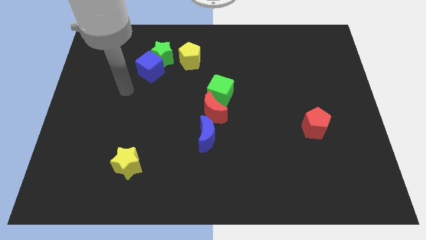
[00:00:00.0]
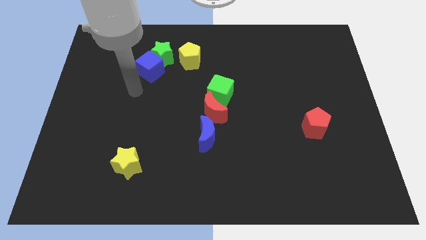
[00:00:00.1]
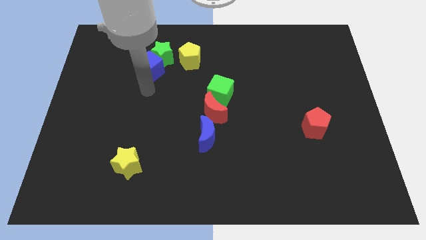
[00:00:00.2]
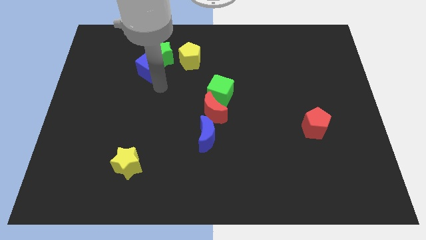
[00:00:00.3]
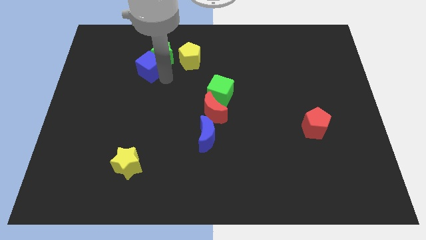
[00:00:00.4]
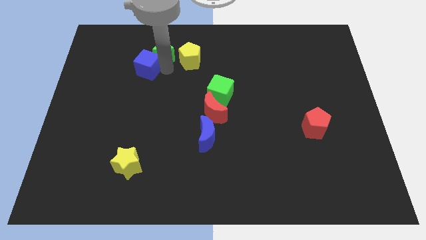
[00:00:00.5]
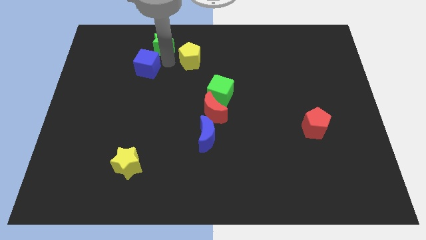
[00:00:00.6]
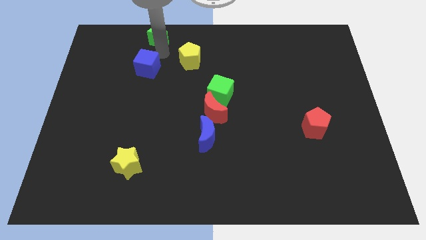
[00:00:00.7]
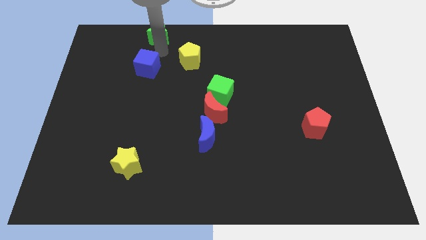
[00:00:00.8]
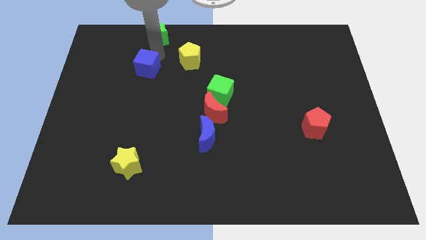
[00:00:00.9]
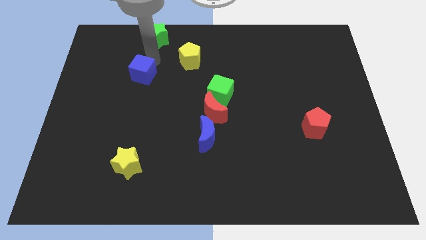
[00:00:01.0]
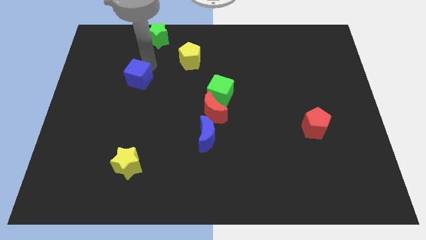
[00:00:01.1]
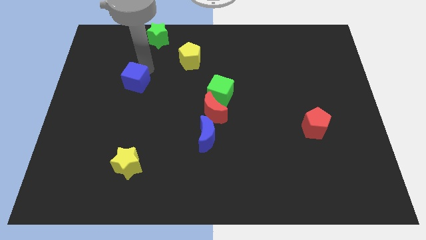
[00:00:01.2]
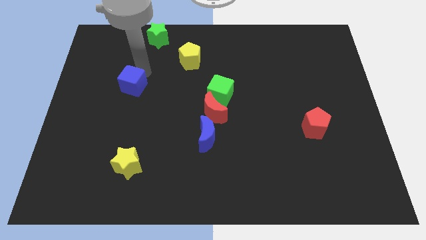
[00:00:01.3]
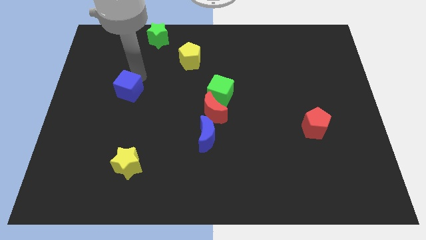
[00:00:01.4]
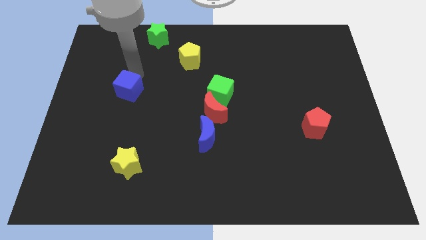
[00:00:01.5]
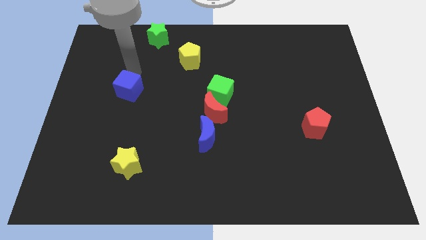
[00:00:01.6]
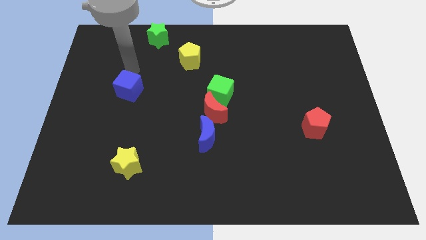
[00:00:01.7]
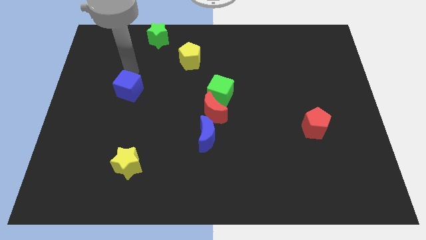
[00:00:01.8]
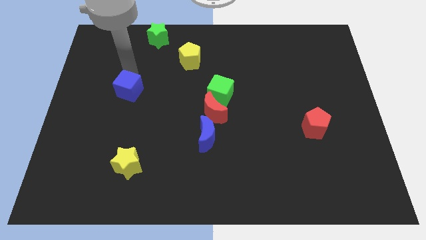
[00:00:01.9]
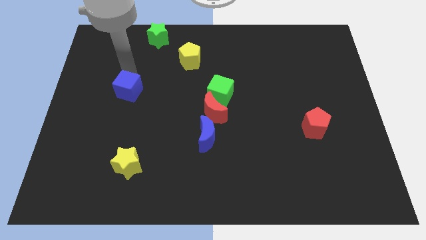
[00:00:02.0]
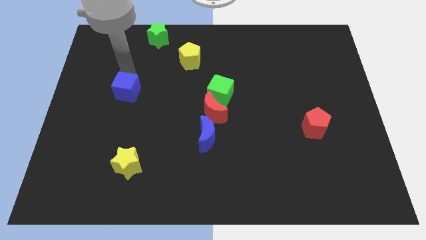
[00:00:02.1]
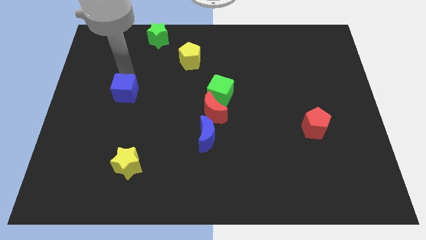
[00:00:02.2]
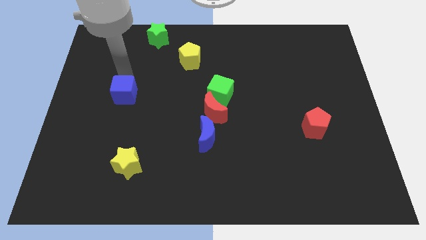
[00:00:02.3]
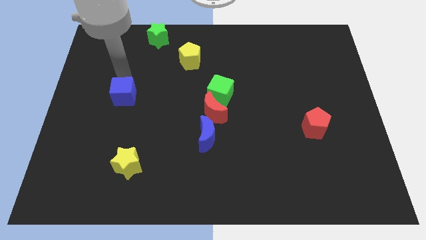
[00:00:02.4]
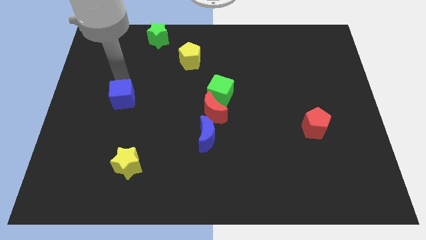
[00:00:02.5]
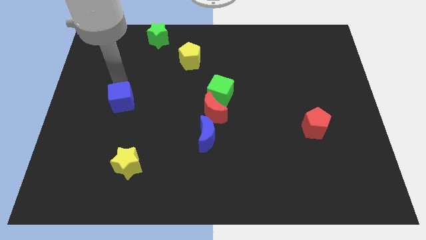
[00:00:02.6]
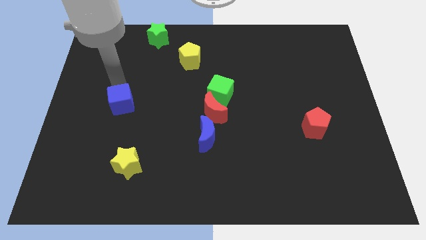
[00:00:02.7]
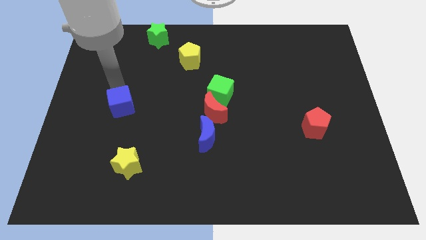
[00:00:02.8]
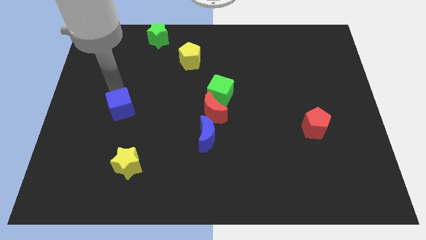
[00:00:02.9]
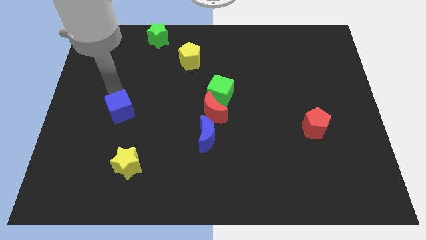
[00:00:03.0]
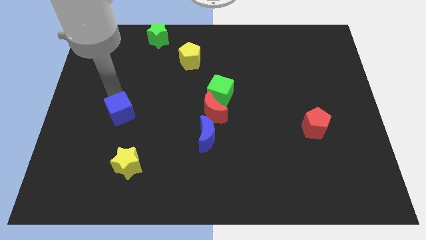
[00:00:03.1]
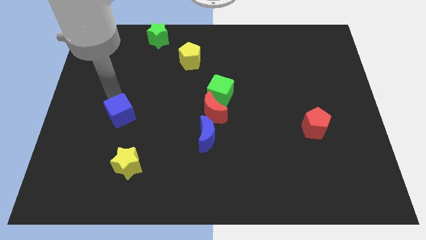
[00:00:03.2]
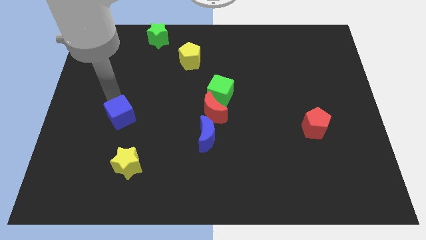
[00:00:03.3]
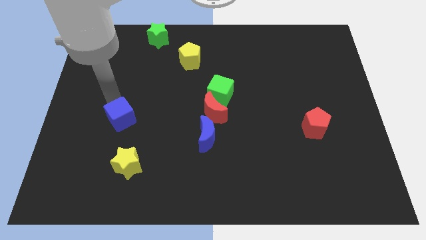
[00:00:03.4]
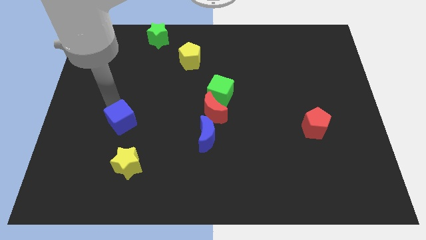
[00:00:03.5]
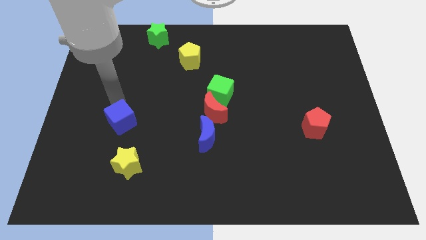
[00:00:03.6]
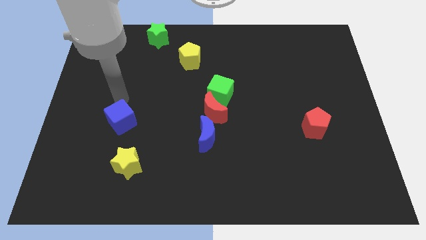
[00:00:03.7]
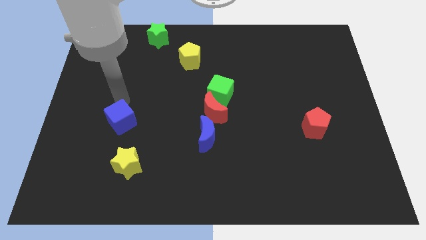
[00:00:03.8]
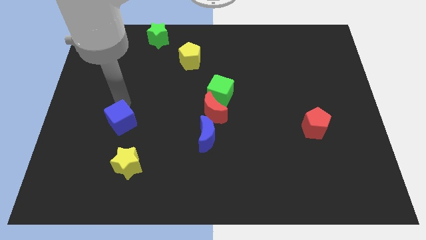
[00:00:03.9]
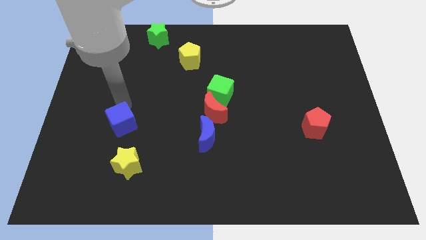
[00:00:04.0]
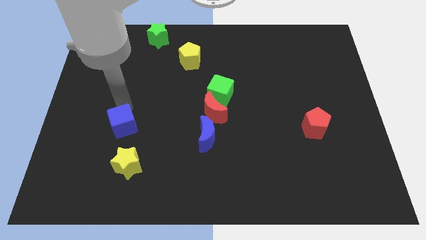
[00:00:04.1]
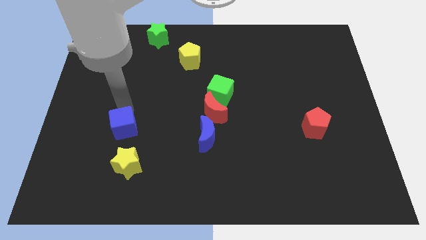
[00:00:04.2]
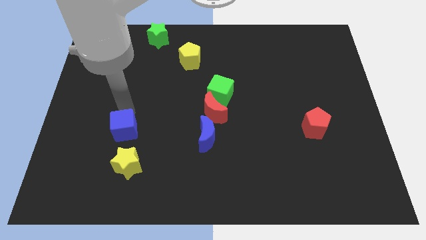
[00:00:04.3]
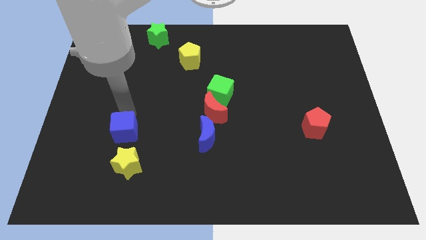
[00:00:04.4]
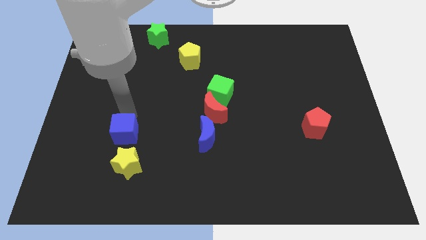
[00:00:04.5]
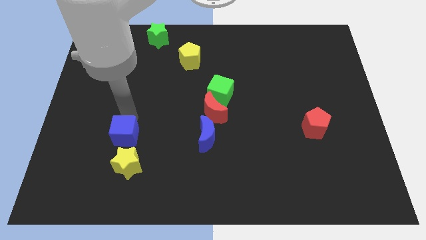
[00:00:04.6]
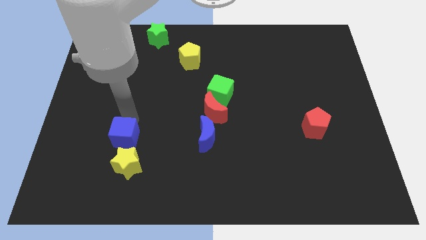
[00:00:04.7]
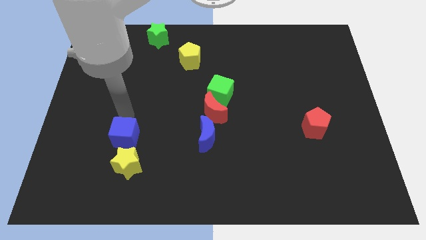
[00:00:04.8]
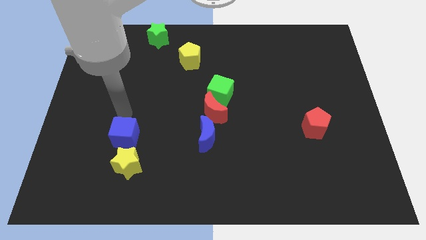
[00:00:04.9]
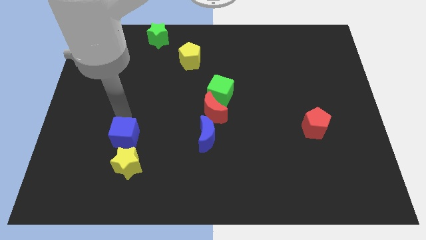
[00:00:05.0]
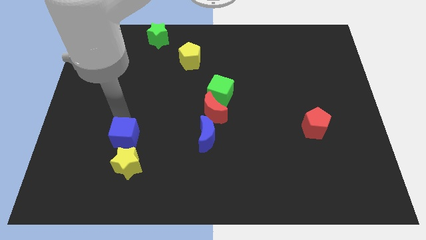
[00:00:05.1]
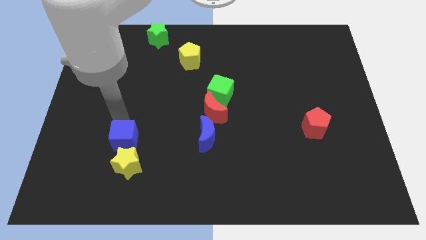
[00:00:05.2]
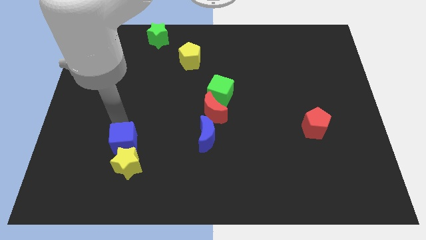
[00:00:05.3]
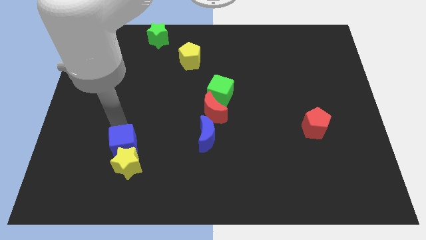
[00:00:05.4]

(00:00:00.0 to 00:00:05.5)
slide the blue cube next to the yellow star

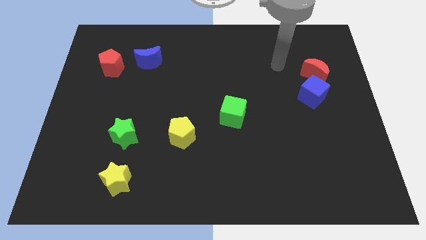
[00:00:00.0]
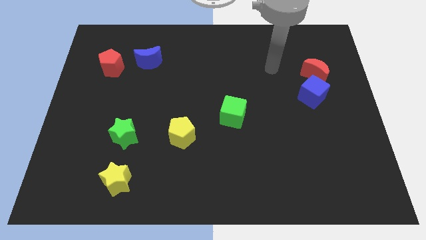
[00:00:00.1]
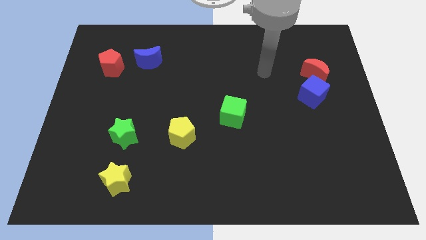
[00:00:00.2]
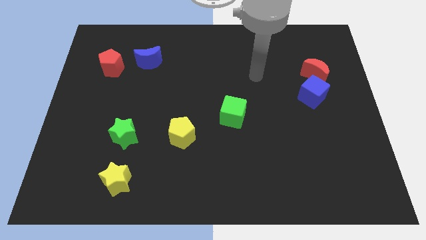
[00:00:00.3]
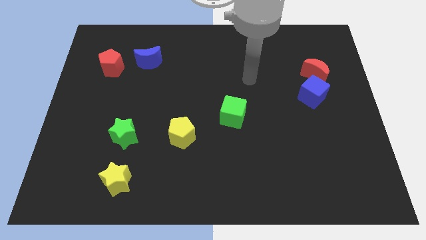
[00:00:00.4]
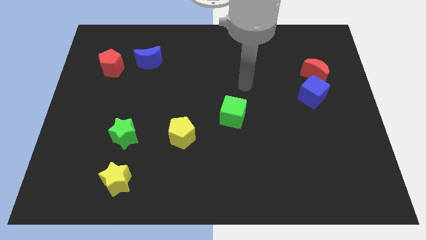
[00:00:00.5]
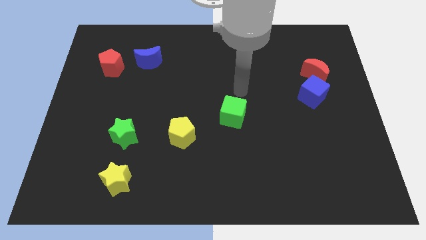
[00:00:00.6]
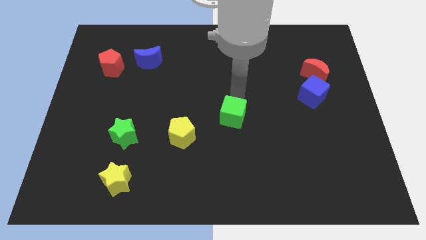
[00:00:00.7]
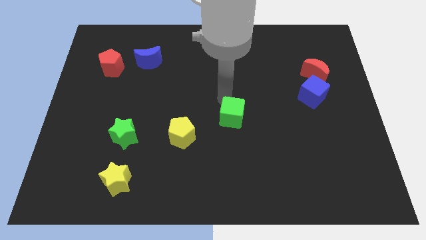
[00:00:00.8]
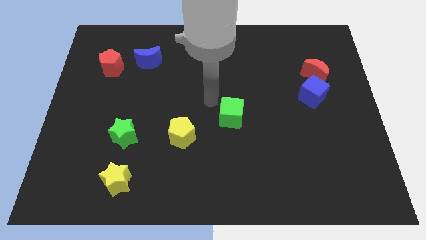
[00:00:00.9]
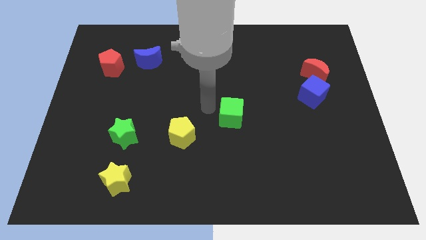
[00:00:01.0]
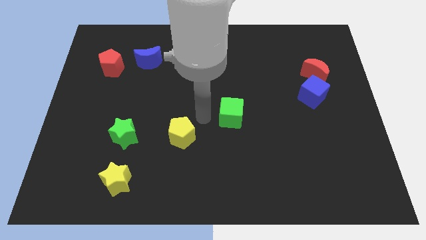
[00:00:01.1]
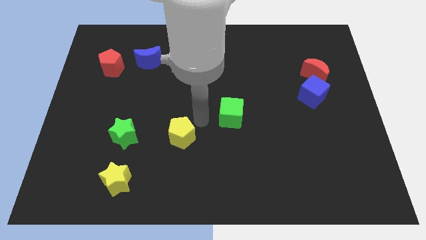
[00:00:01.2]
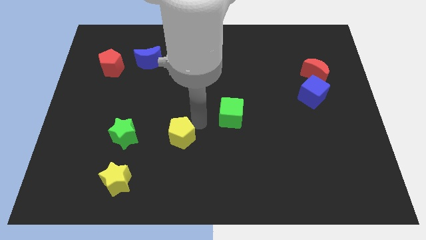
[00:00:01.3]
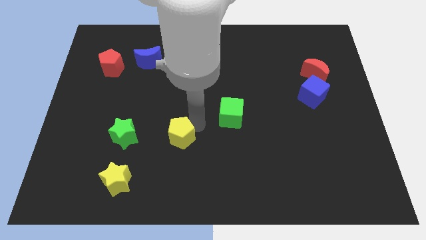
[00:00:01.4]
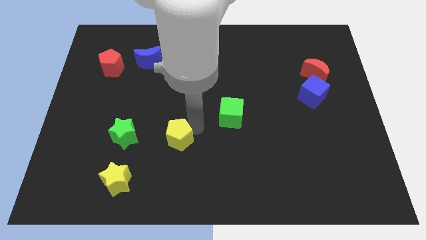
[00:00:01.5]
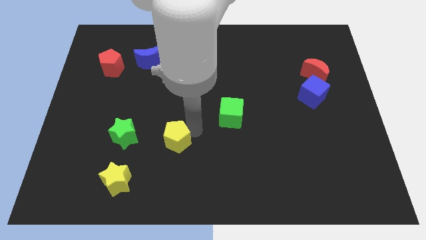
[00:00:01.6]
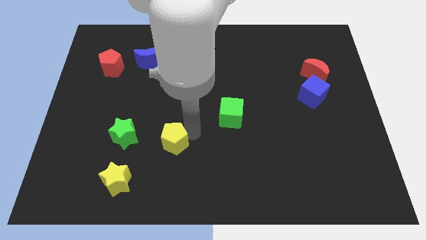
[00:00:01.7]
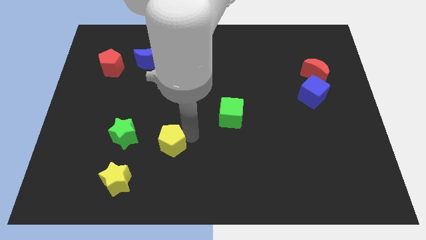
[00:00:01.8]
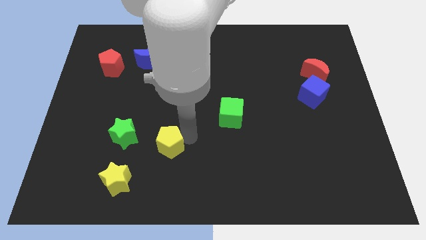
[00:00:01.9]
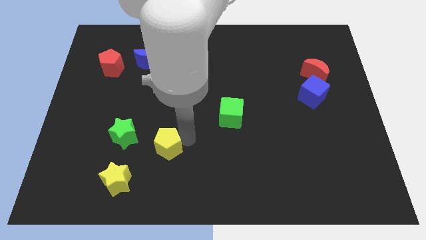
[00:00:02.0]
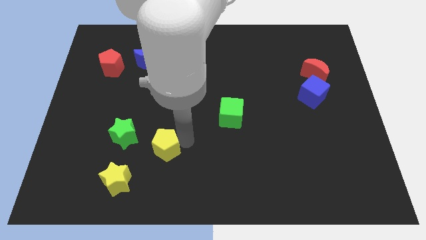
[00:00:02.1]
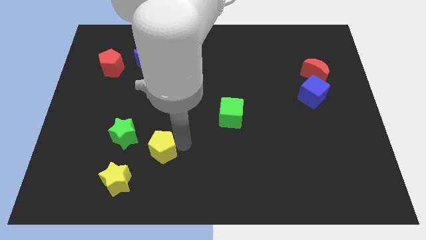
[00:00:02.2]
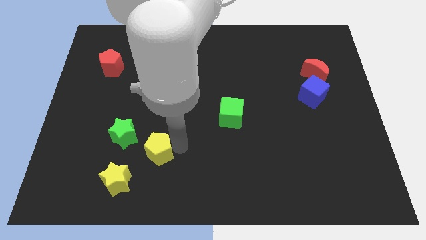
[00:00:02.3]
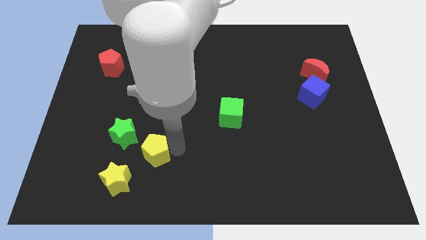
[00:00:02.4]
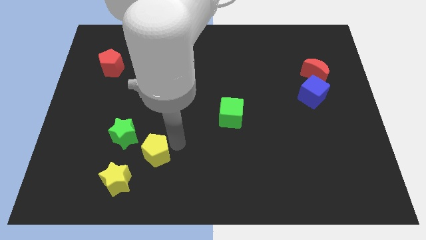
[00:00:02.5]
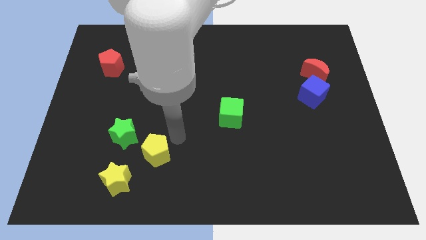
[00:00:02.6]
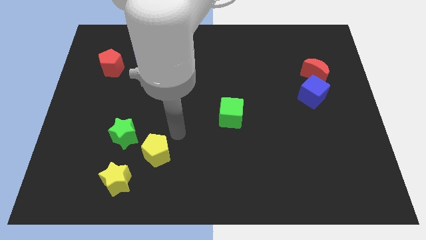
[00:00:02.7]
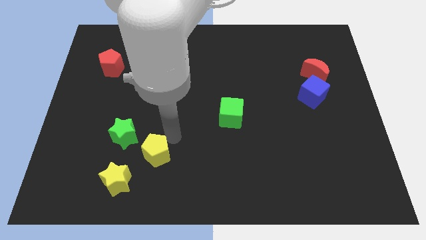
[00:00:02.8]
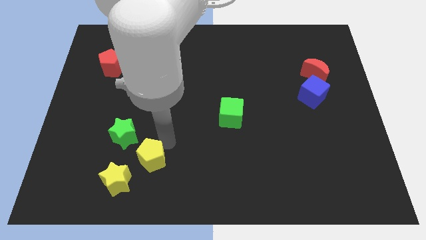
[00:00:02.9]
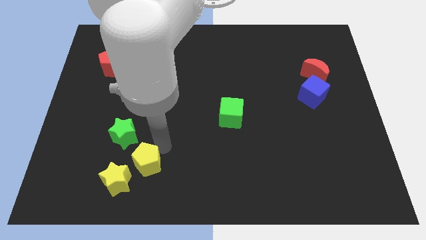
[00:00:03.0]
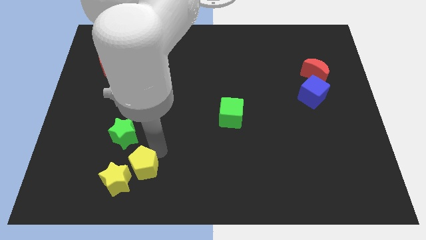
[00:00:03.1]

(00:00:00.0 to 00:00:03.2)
push the yellow pentagon next to the yellow star
